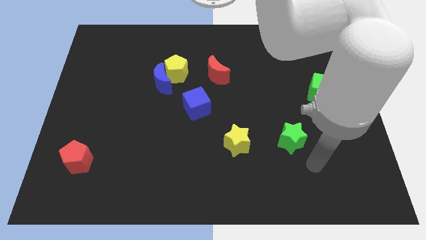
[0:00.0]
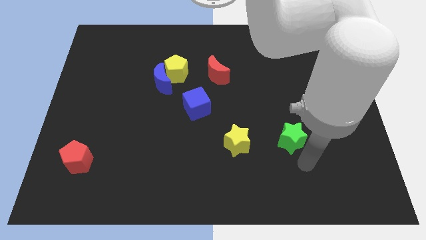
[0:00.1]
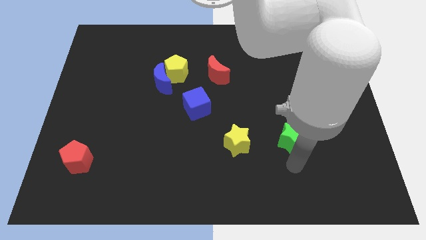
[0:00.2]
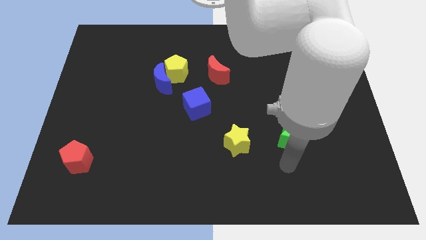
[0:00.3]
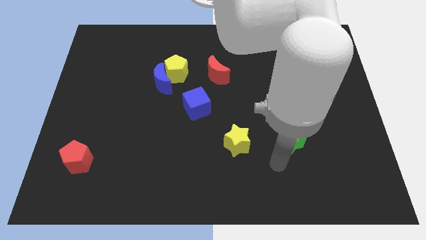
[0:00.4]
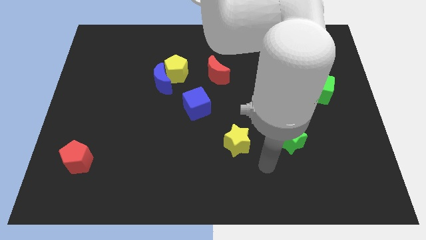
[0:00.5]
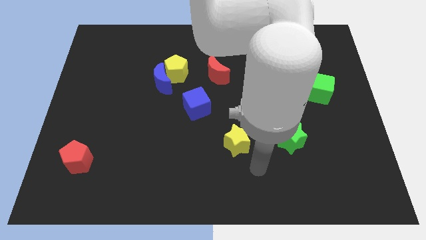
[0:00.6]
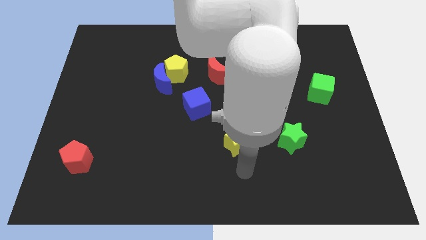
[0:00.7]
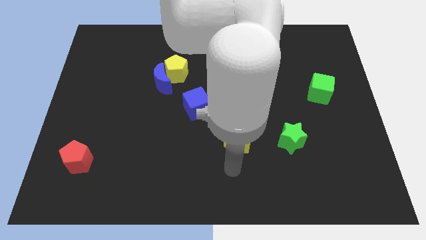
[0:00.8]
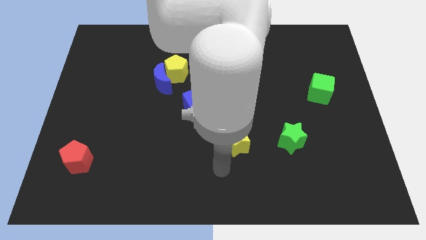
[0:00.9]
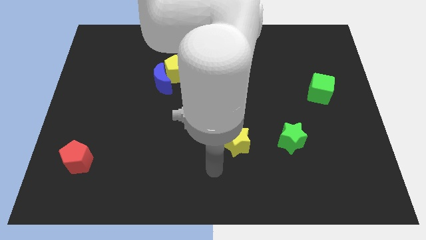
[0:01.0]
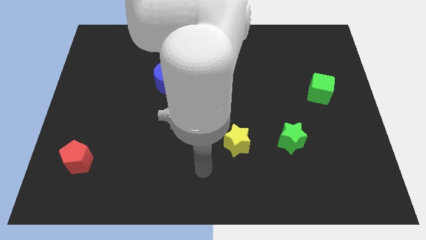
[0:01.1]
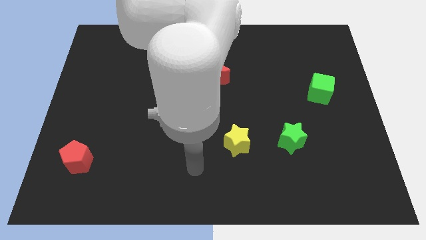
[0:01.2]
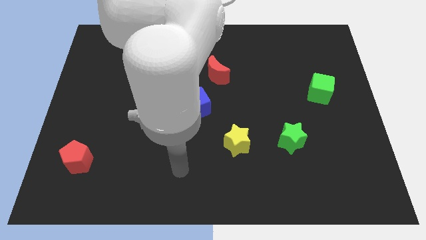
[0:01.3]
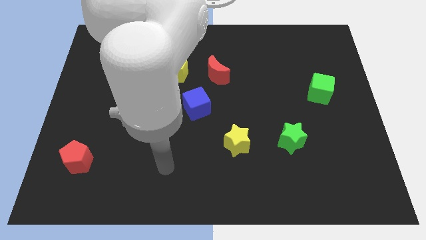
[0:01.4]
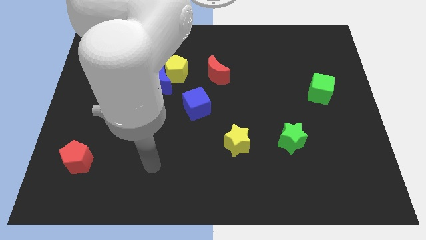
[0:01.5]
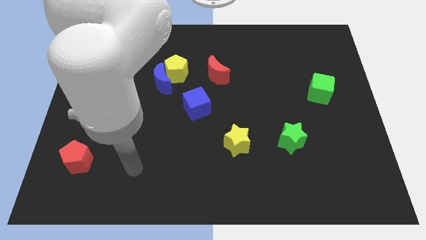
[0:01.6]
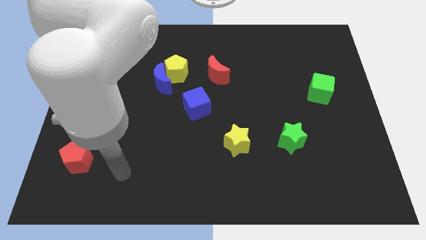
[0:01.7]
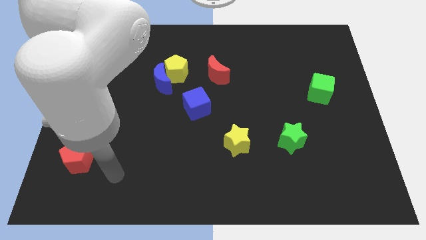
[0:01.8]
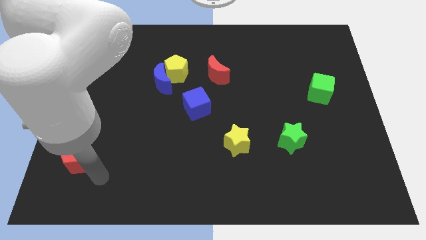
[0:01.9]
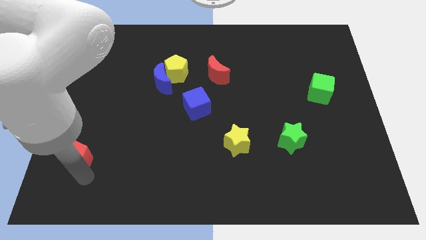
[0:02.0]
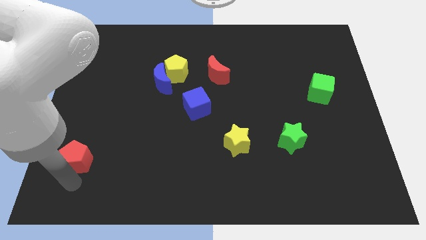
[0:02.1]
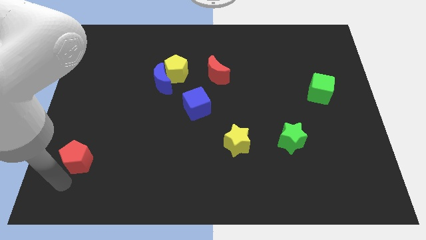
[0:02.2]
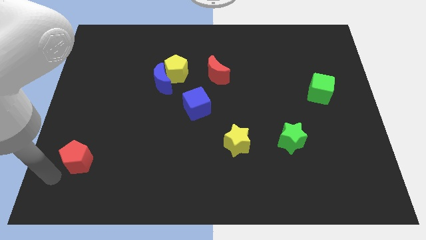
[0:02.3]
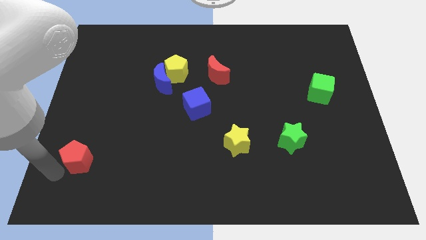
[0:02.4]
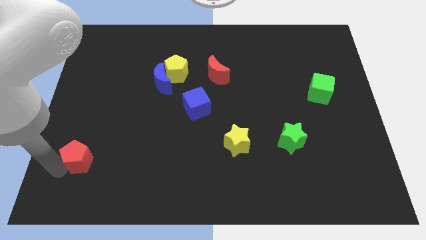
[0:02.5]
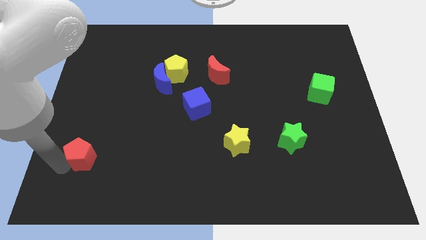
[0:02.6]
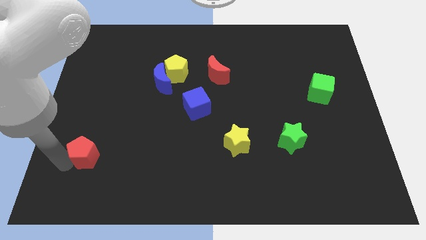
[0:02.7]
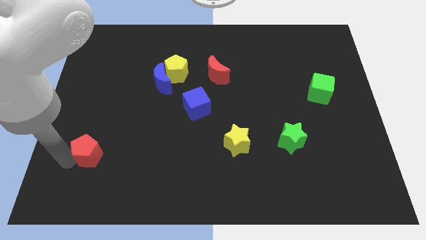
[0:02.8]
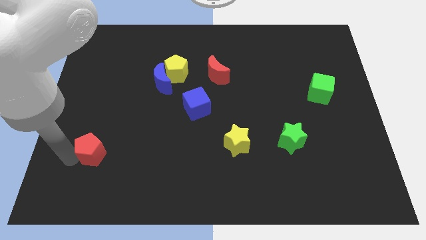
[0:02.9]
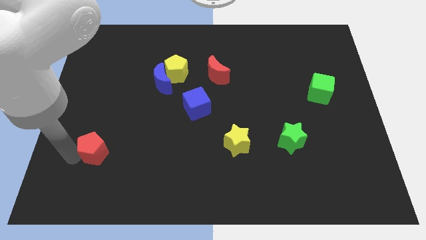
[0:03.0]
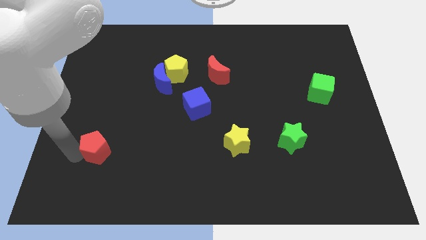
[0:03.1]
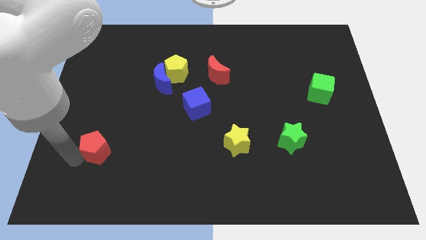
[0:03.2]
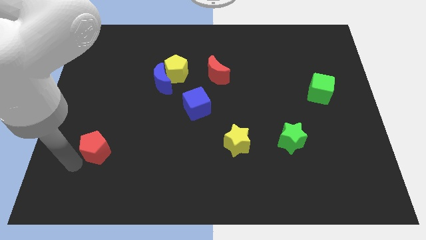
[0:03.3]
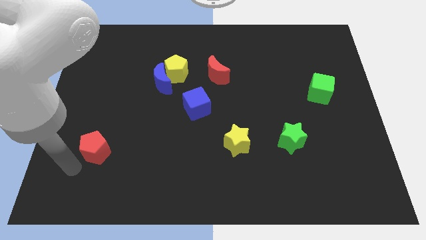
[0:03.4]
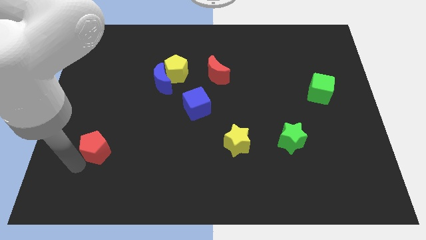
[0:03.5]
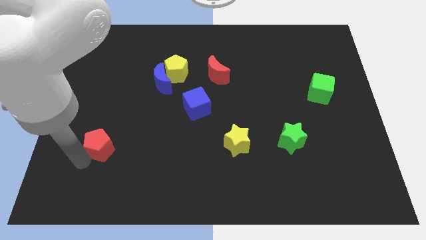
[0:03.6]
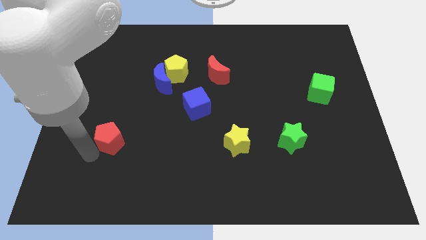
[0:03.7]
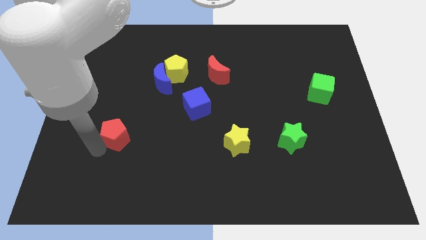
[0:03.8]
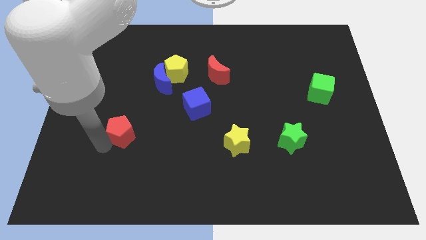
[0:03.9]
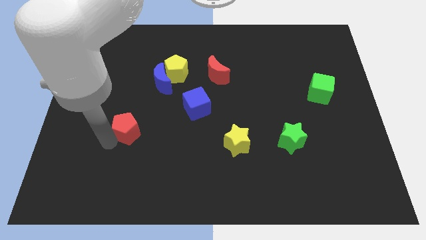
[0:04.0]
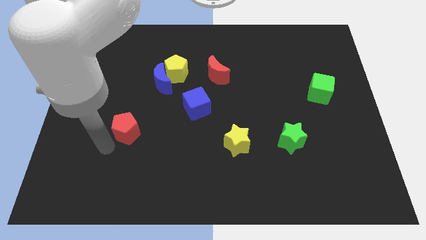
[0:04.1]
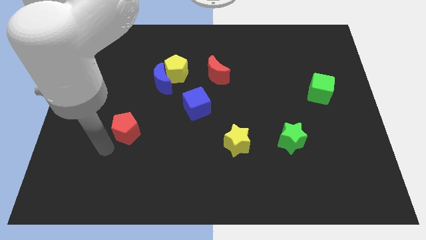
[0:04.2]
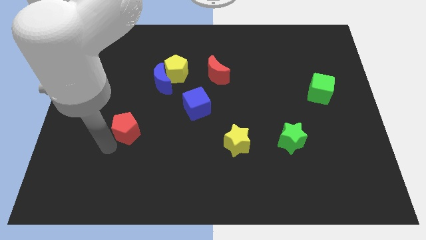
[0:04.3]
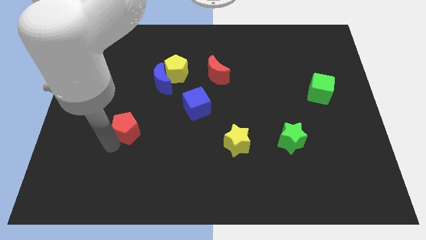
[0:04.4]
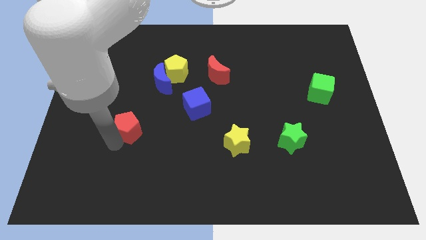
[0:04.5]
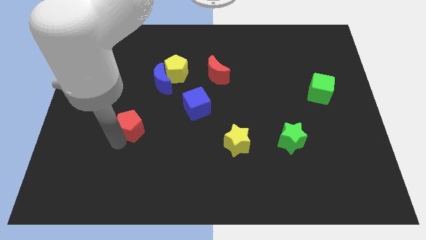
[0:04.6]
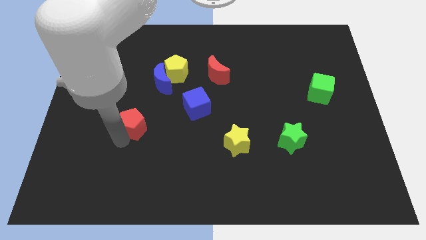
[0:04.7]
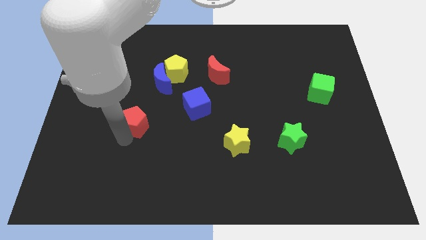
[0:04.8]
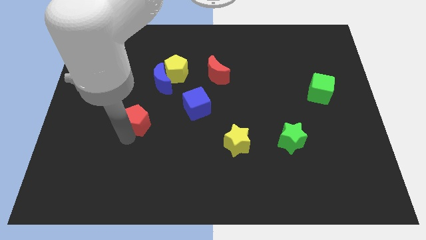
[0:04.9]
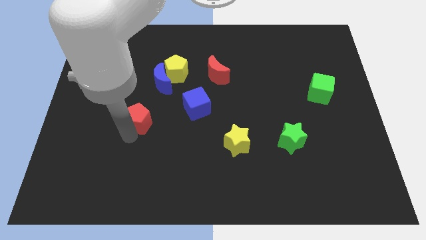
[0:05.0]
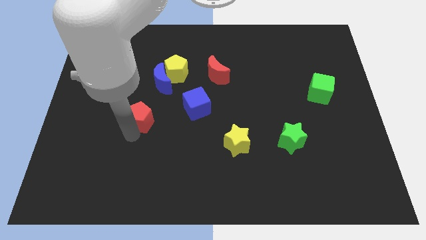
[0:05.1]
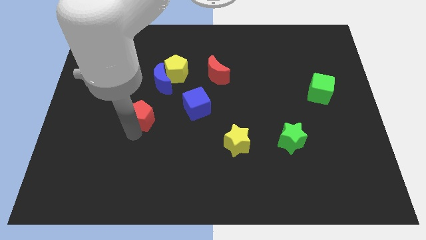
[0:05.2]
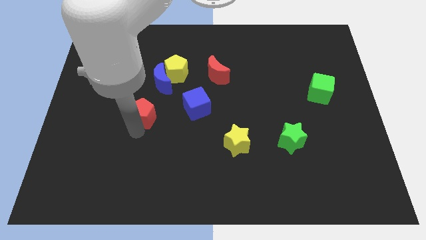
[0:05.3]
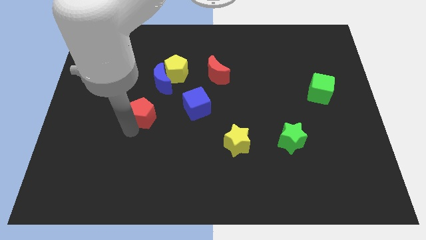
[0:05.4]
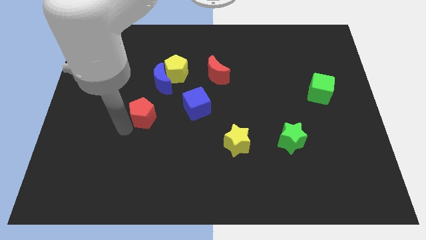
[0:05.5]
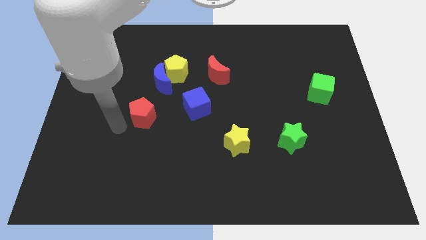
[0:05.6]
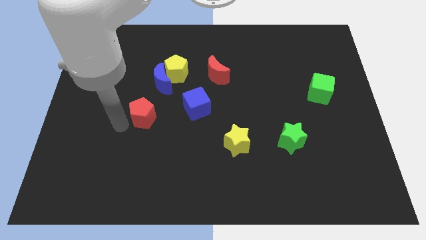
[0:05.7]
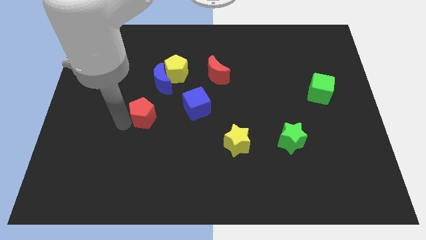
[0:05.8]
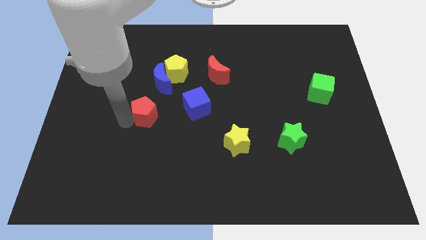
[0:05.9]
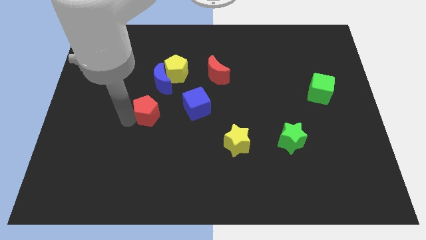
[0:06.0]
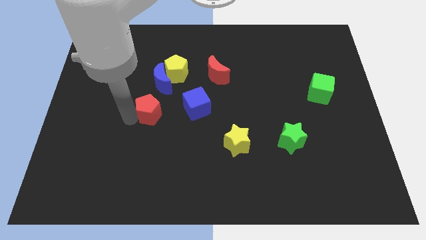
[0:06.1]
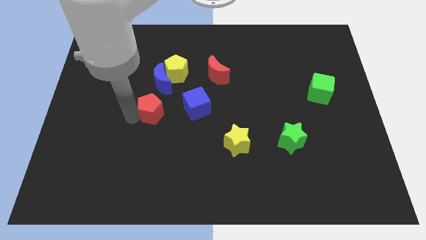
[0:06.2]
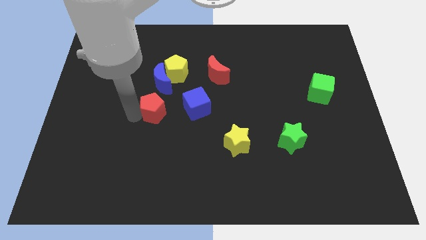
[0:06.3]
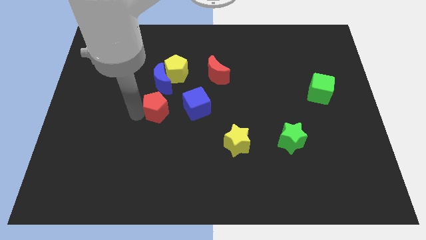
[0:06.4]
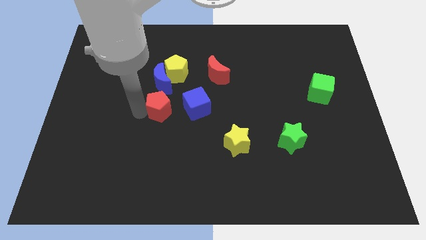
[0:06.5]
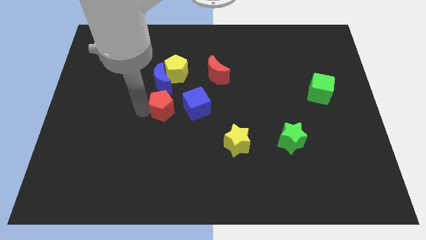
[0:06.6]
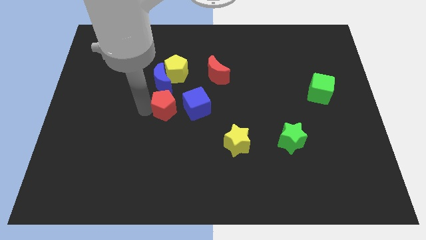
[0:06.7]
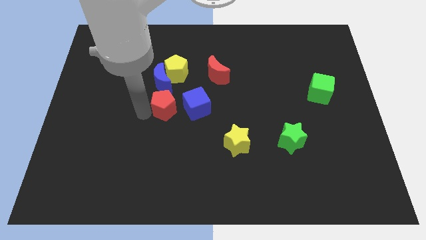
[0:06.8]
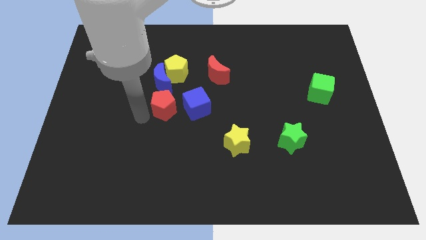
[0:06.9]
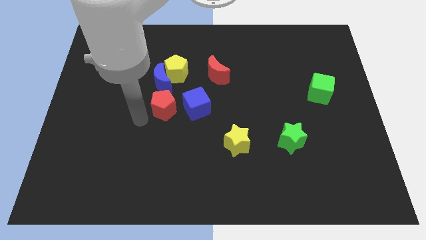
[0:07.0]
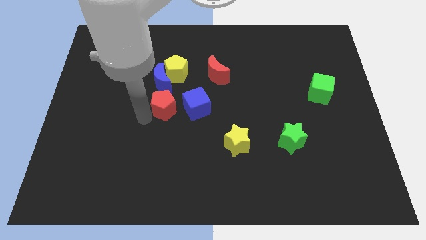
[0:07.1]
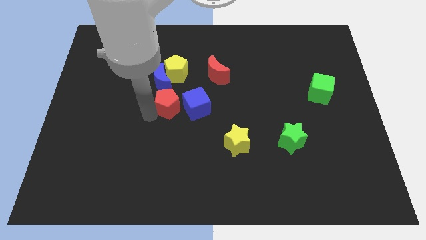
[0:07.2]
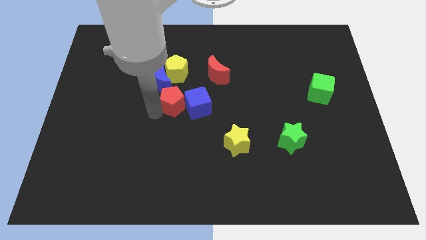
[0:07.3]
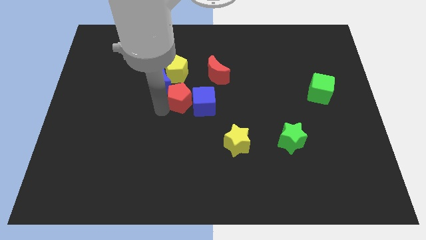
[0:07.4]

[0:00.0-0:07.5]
push the red pentagon diagonally down and to the left of the red moon
